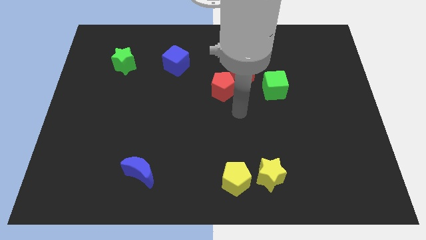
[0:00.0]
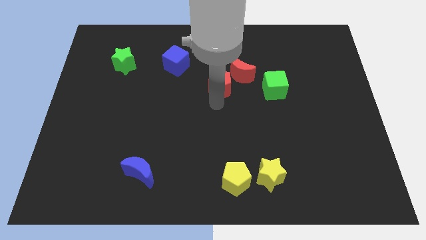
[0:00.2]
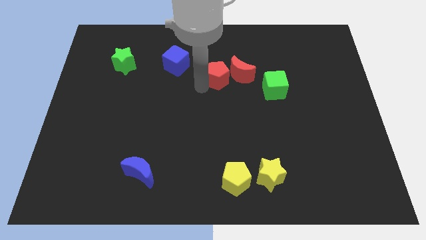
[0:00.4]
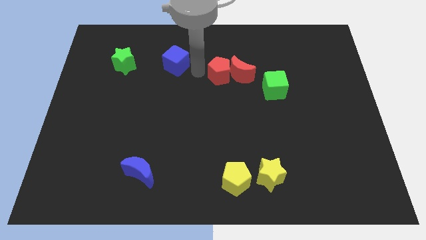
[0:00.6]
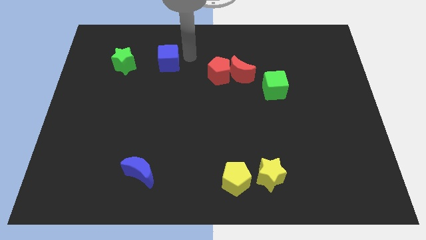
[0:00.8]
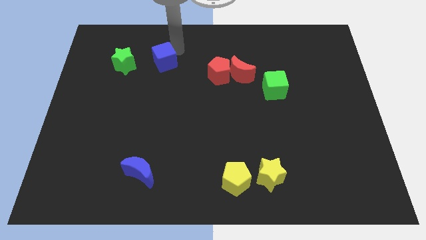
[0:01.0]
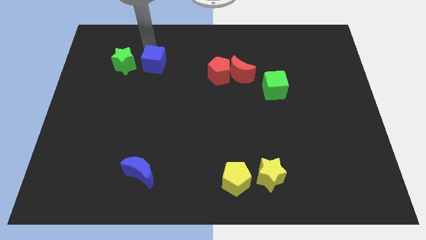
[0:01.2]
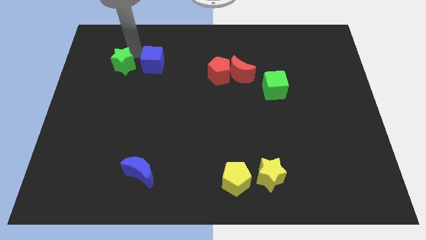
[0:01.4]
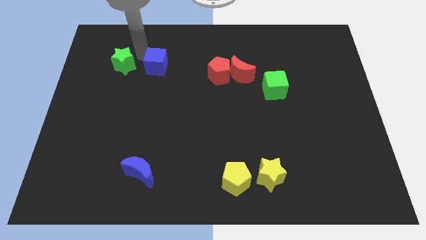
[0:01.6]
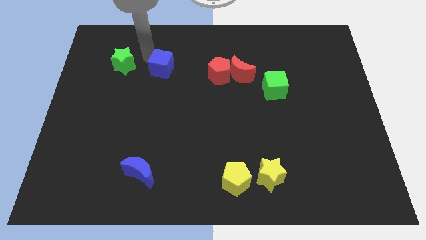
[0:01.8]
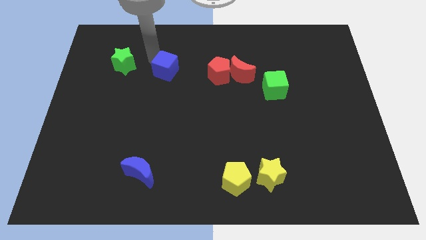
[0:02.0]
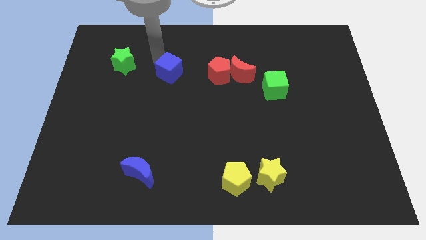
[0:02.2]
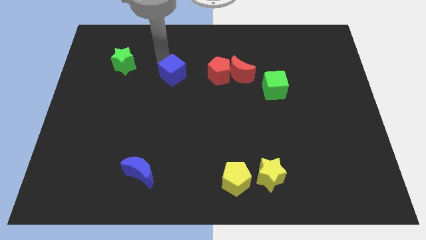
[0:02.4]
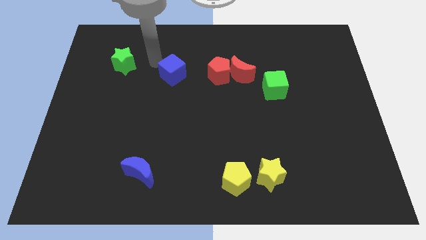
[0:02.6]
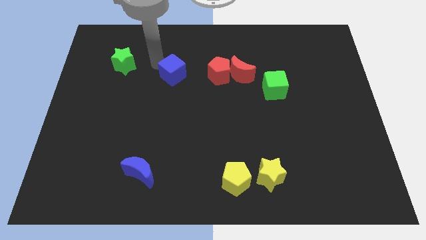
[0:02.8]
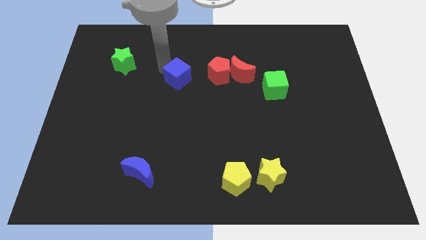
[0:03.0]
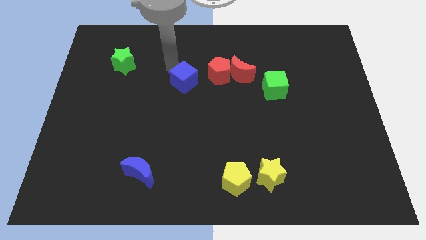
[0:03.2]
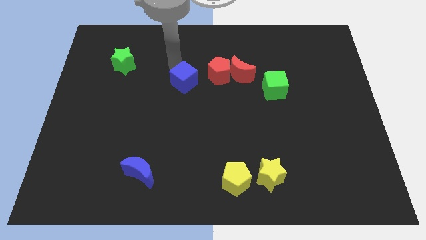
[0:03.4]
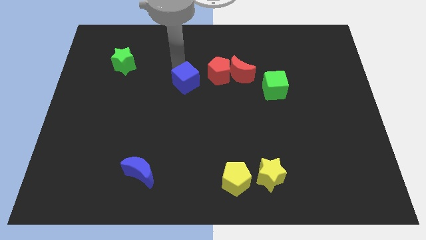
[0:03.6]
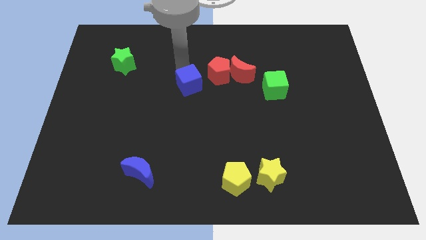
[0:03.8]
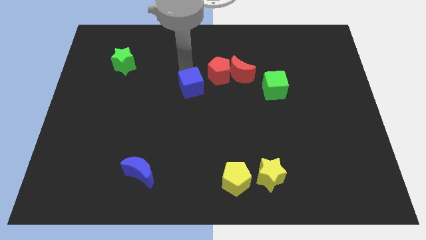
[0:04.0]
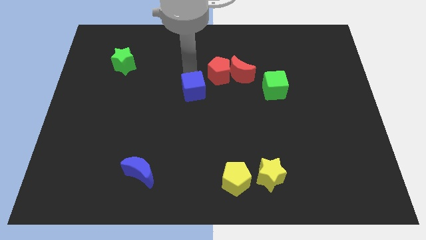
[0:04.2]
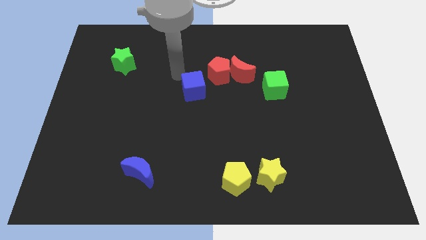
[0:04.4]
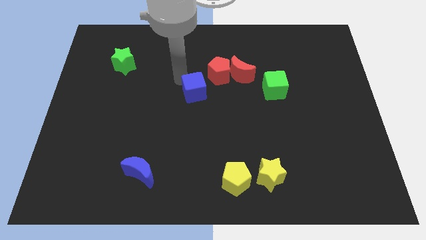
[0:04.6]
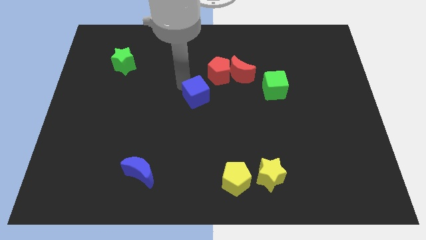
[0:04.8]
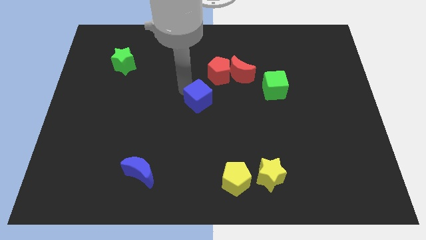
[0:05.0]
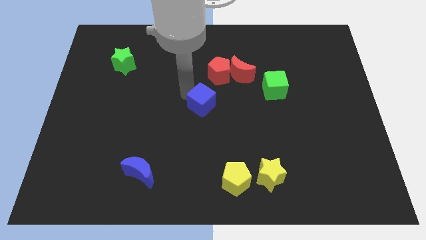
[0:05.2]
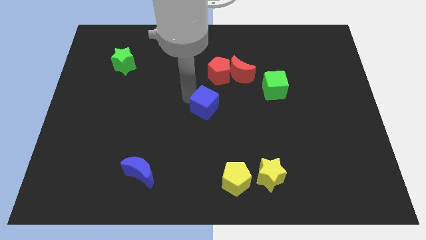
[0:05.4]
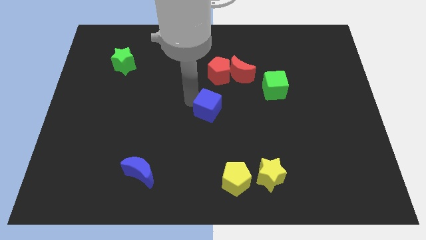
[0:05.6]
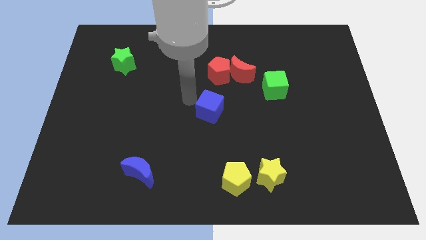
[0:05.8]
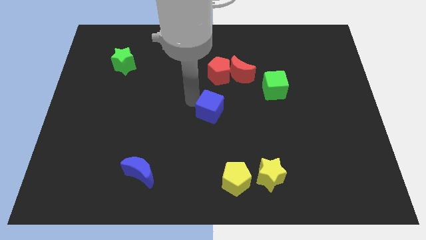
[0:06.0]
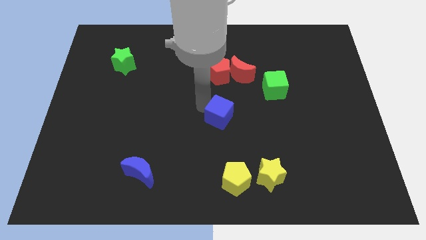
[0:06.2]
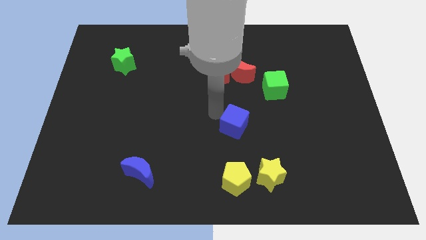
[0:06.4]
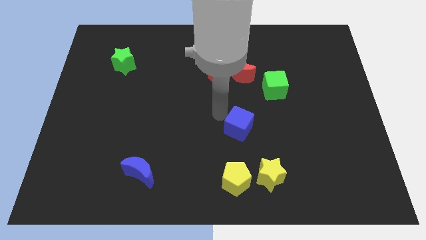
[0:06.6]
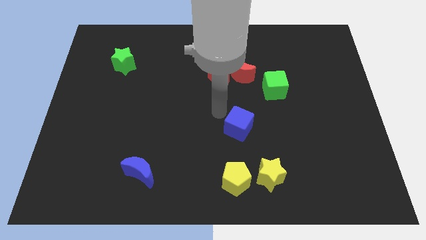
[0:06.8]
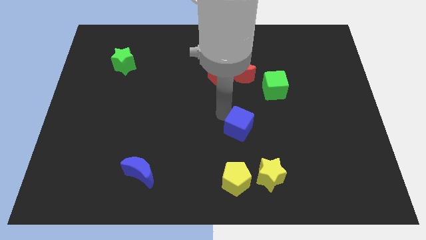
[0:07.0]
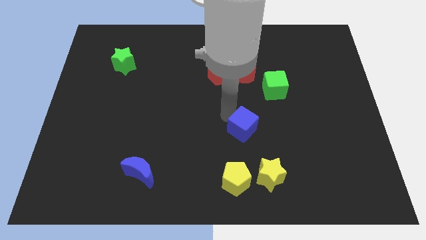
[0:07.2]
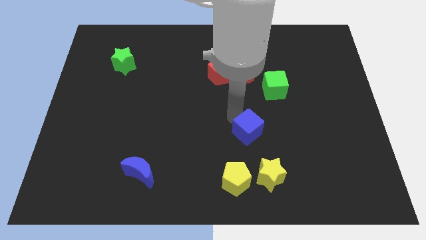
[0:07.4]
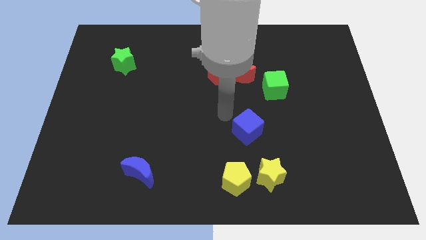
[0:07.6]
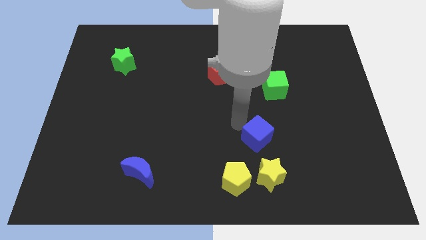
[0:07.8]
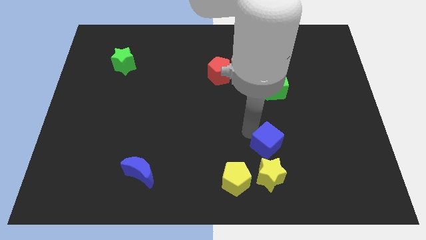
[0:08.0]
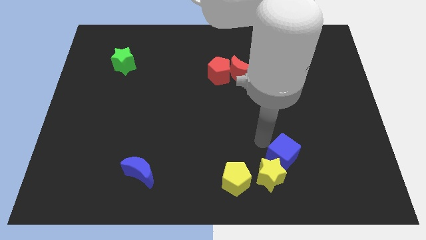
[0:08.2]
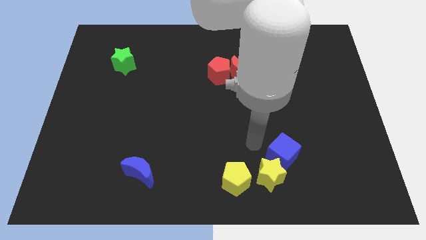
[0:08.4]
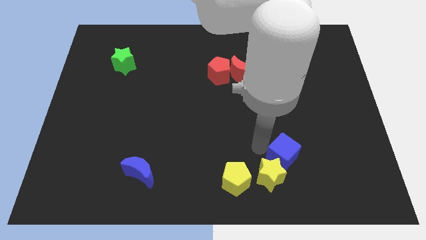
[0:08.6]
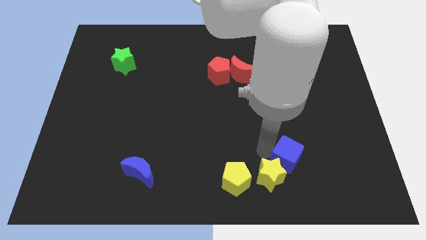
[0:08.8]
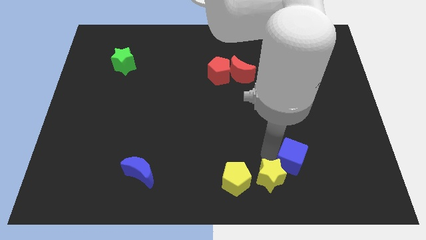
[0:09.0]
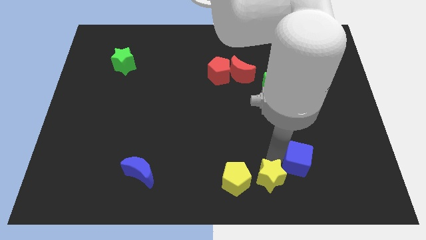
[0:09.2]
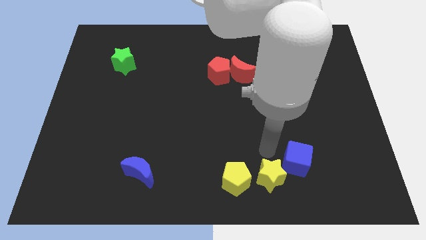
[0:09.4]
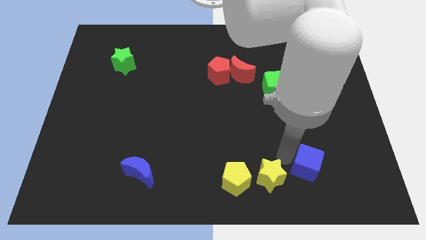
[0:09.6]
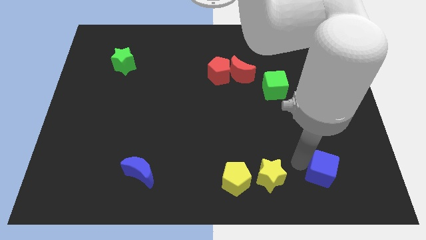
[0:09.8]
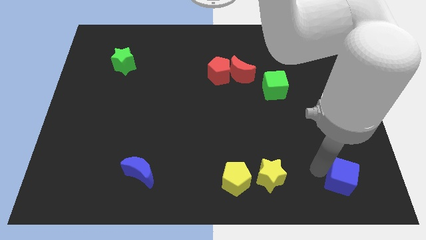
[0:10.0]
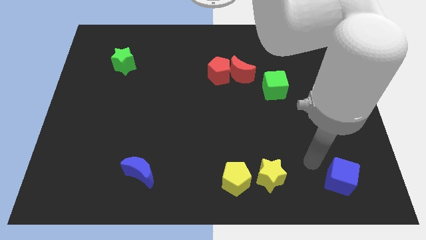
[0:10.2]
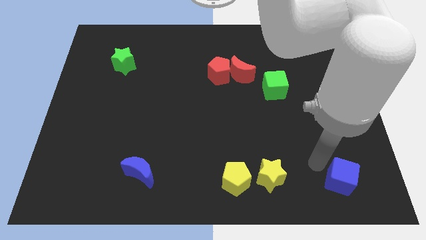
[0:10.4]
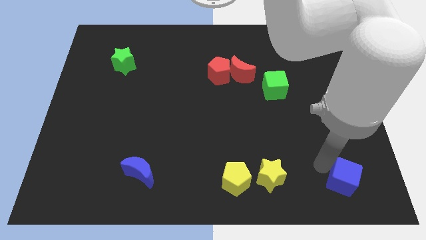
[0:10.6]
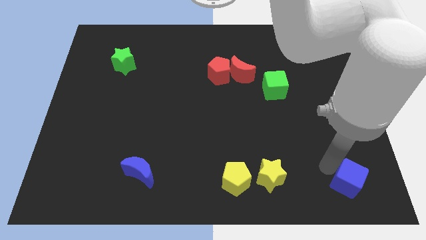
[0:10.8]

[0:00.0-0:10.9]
push the blue cube to the bottom right corner
